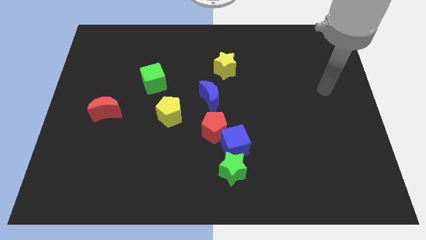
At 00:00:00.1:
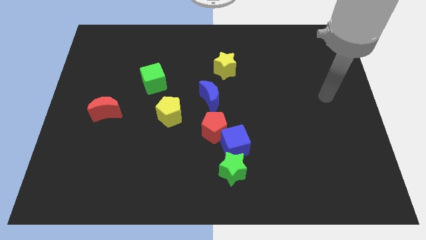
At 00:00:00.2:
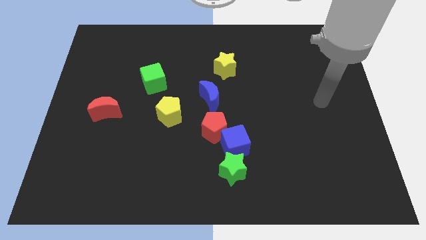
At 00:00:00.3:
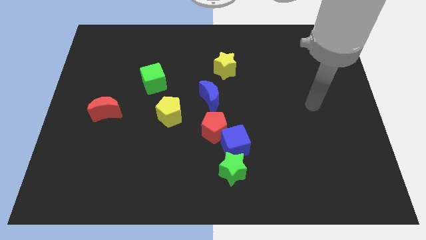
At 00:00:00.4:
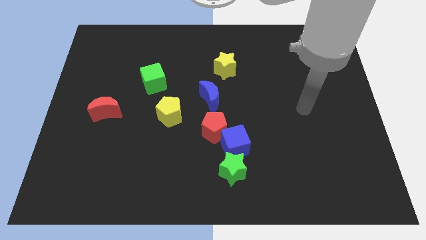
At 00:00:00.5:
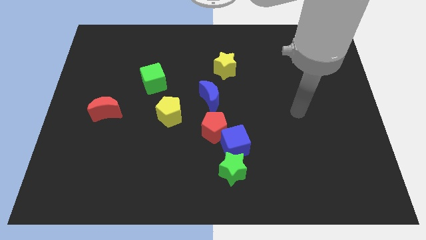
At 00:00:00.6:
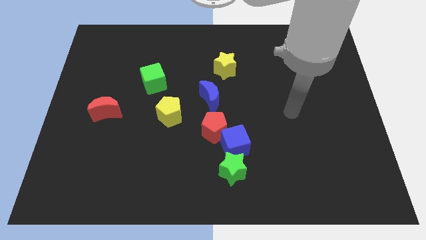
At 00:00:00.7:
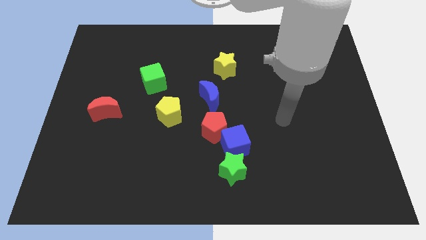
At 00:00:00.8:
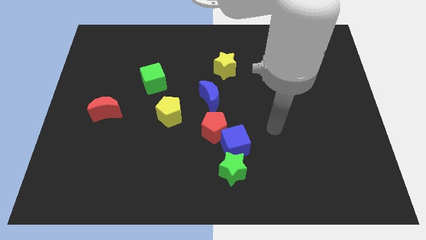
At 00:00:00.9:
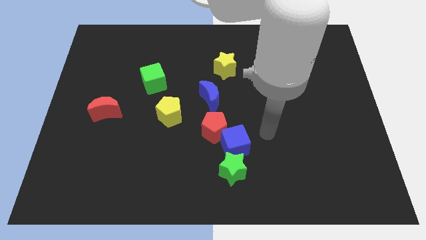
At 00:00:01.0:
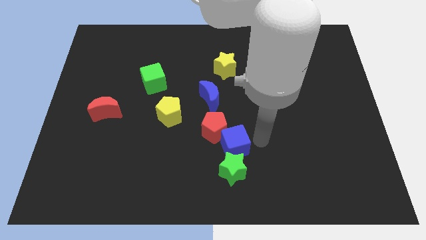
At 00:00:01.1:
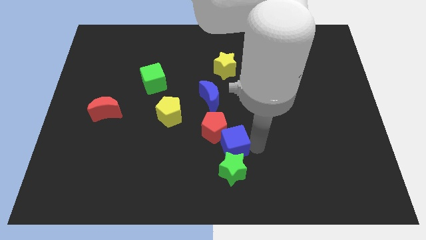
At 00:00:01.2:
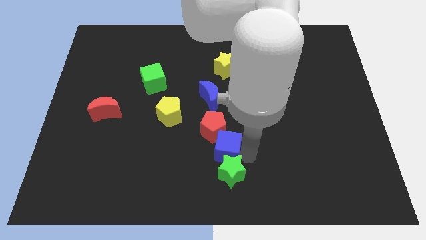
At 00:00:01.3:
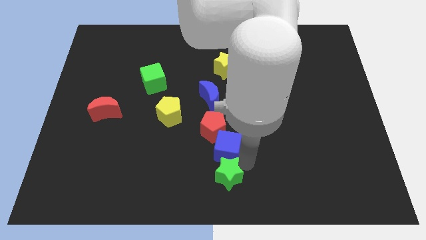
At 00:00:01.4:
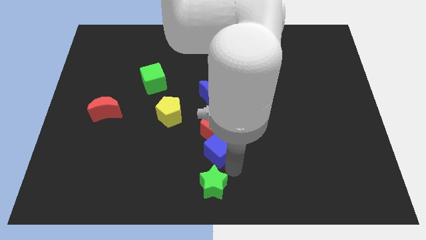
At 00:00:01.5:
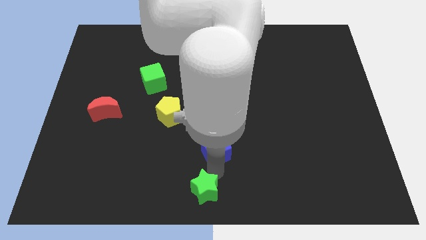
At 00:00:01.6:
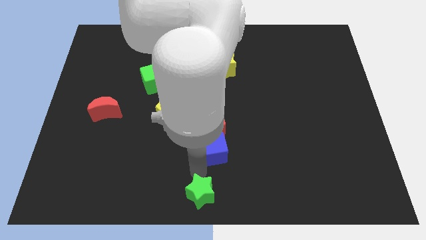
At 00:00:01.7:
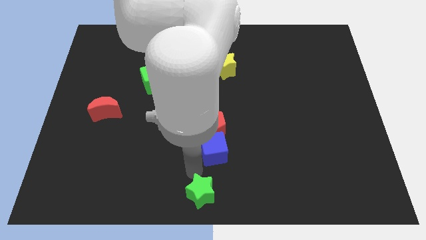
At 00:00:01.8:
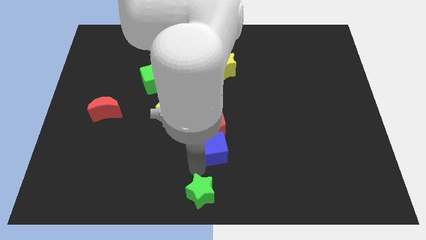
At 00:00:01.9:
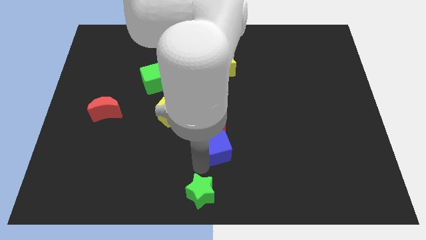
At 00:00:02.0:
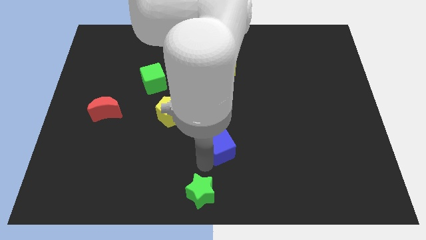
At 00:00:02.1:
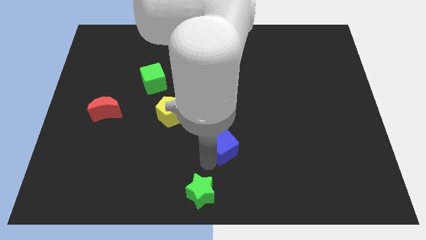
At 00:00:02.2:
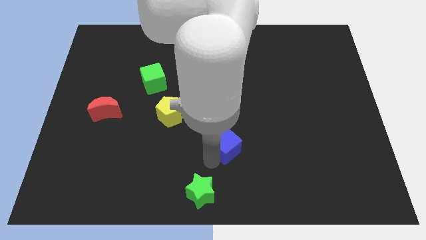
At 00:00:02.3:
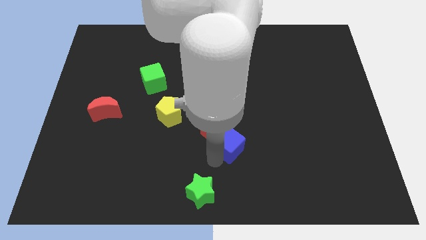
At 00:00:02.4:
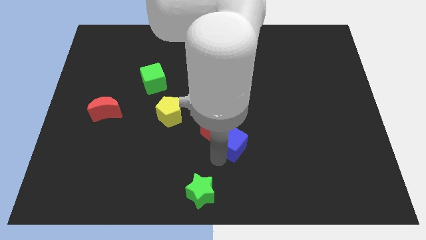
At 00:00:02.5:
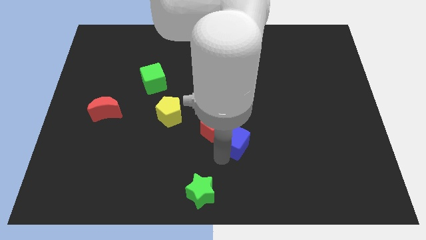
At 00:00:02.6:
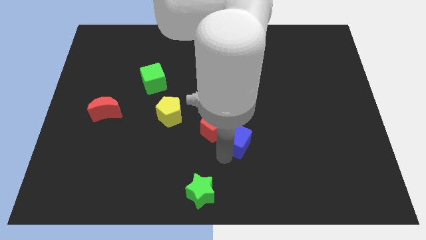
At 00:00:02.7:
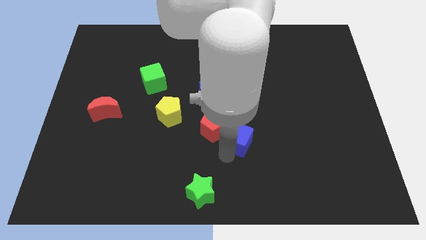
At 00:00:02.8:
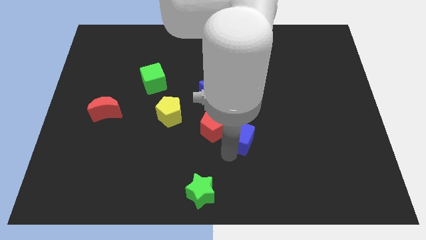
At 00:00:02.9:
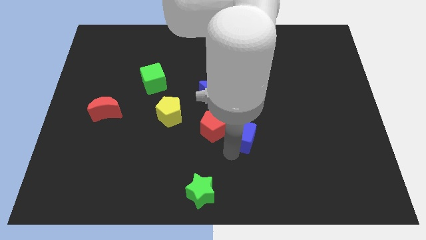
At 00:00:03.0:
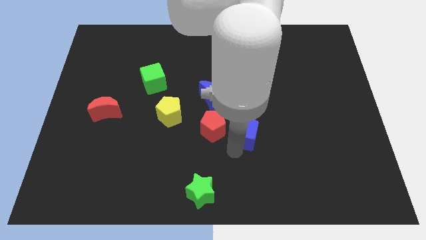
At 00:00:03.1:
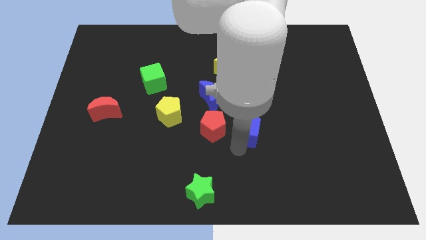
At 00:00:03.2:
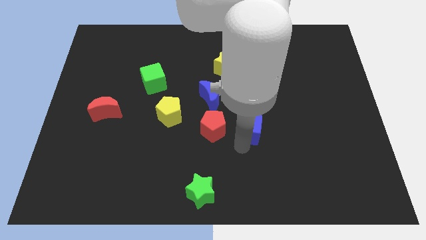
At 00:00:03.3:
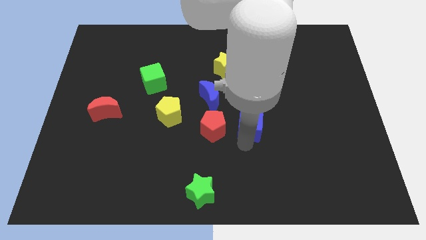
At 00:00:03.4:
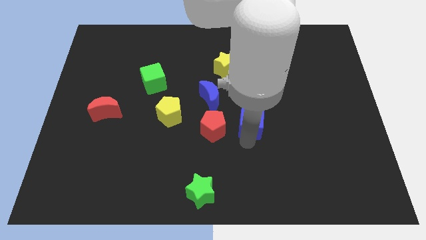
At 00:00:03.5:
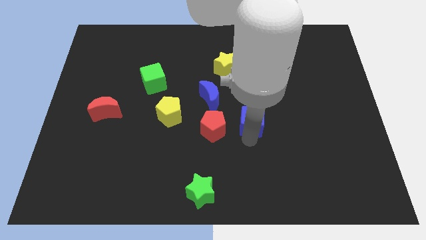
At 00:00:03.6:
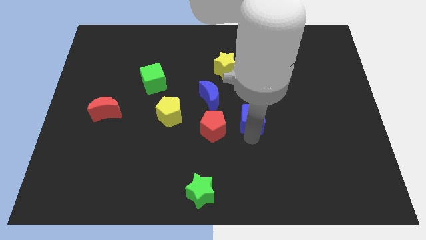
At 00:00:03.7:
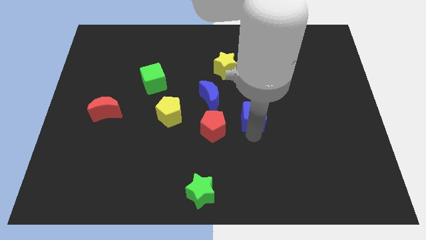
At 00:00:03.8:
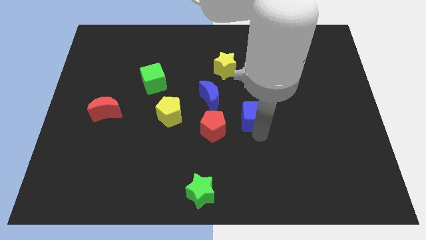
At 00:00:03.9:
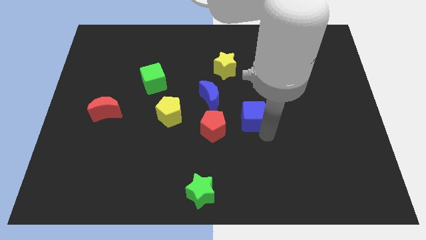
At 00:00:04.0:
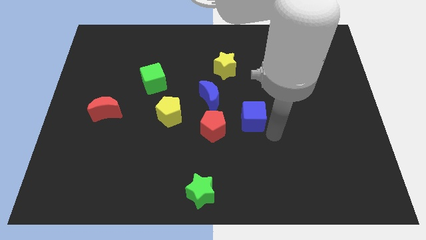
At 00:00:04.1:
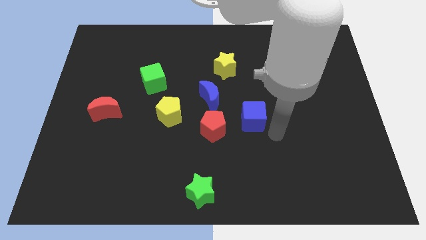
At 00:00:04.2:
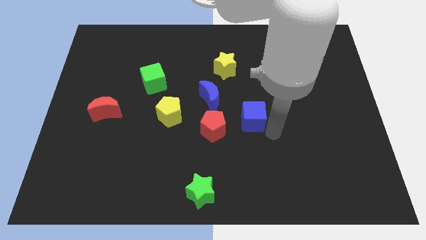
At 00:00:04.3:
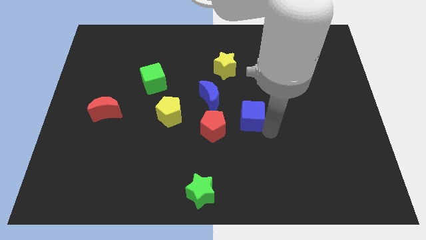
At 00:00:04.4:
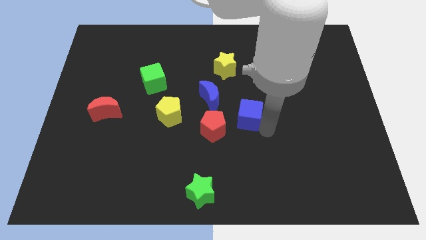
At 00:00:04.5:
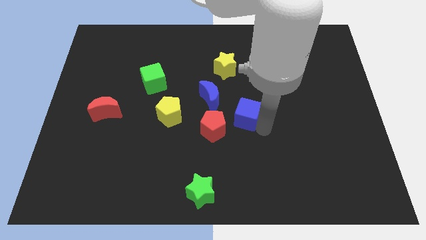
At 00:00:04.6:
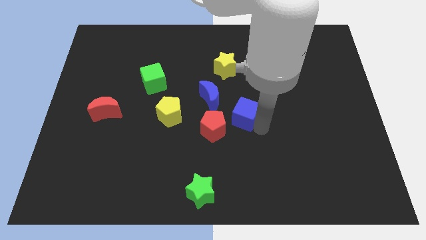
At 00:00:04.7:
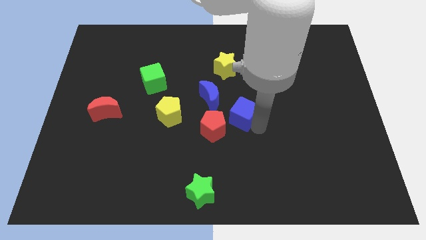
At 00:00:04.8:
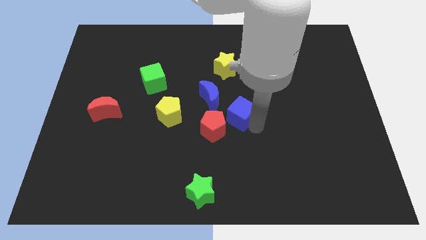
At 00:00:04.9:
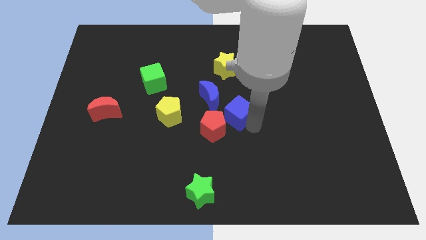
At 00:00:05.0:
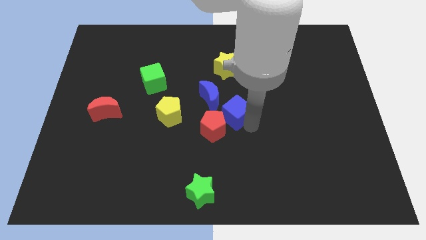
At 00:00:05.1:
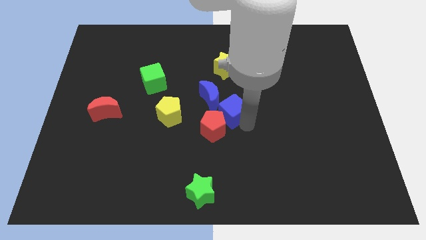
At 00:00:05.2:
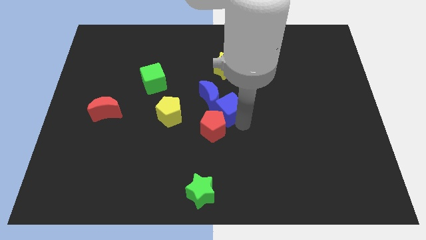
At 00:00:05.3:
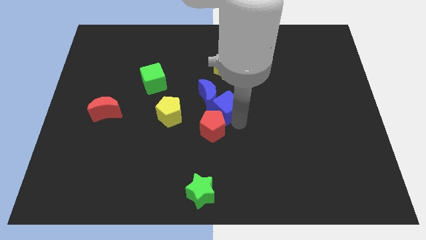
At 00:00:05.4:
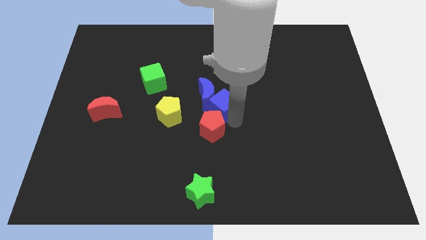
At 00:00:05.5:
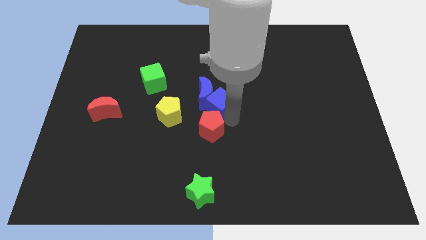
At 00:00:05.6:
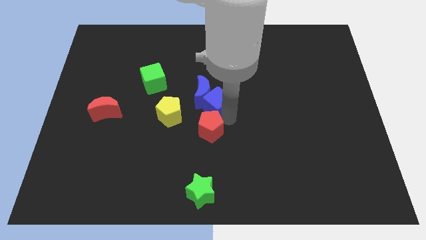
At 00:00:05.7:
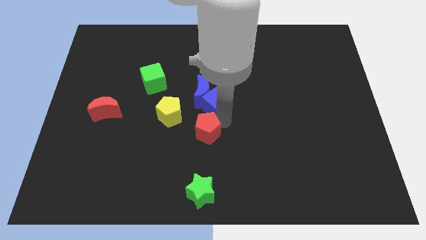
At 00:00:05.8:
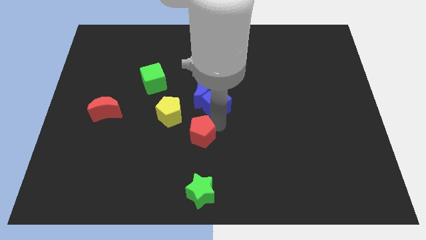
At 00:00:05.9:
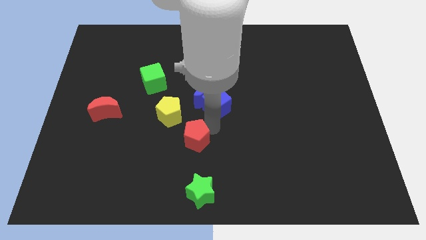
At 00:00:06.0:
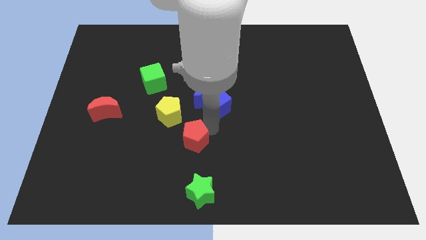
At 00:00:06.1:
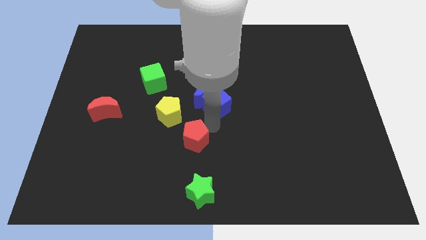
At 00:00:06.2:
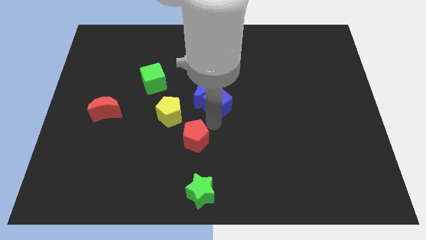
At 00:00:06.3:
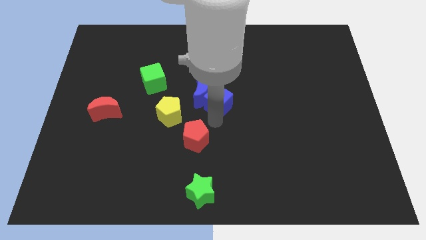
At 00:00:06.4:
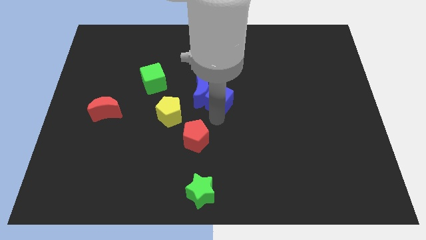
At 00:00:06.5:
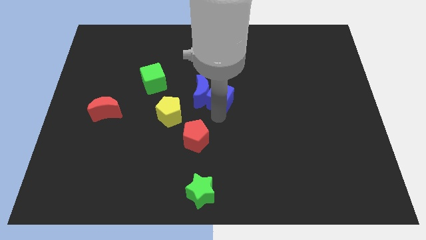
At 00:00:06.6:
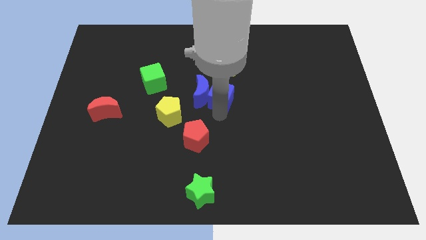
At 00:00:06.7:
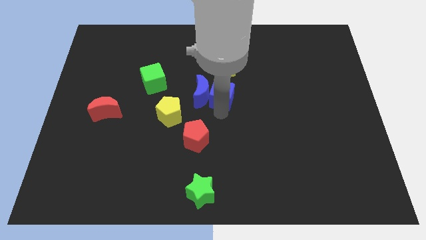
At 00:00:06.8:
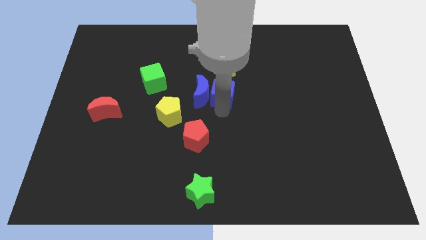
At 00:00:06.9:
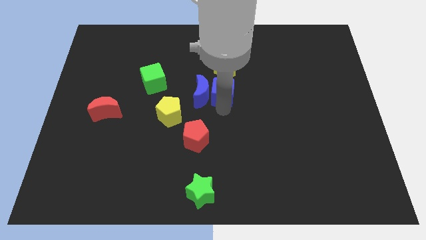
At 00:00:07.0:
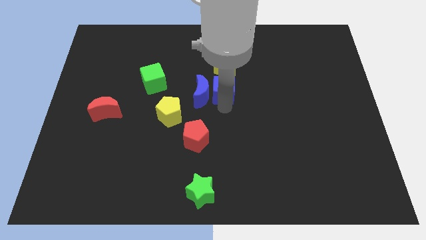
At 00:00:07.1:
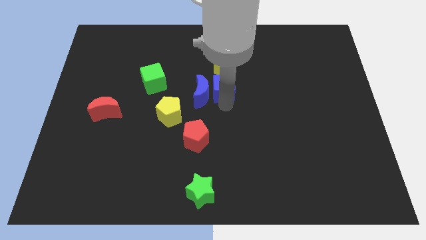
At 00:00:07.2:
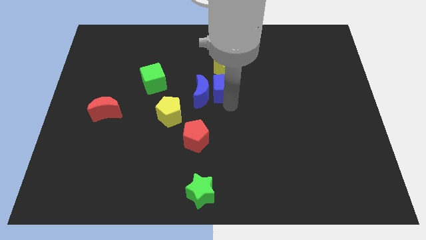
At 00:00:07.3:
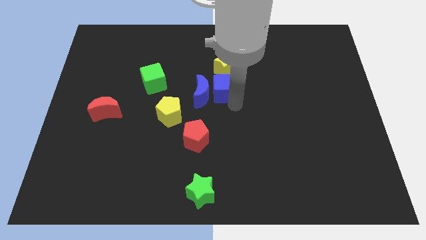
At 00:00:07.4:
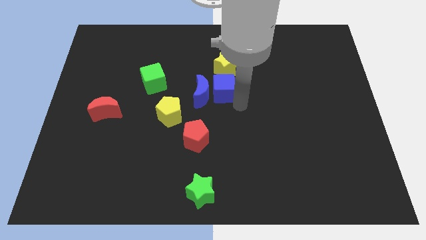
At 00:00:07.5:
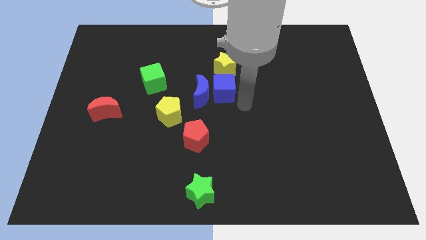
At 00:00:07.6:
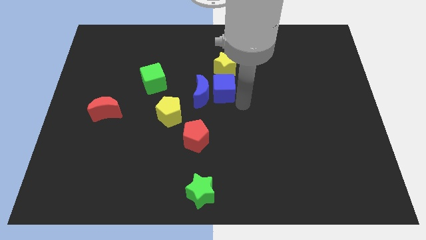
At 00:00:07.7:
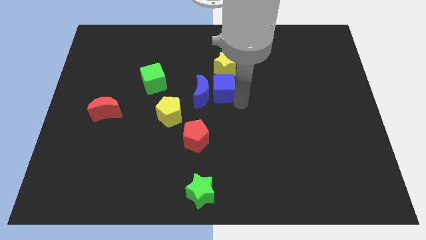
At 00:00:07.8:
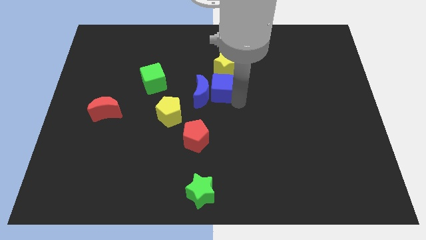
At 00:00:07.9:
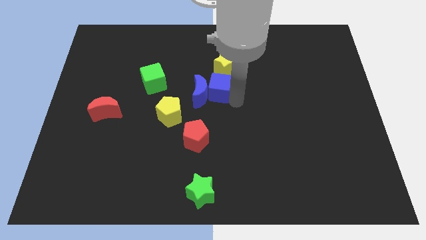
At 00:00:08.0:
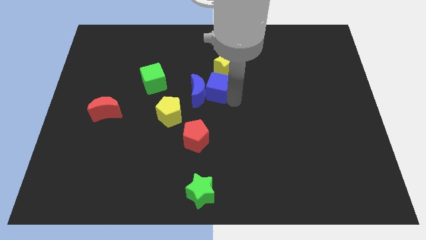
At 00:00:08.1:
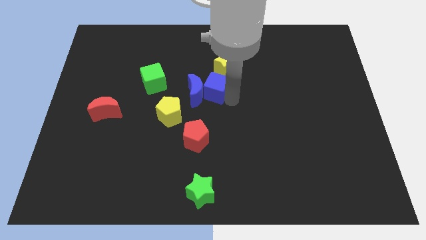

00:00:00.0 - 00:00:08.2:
push the blue cube to the right side of the green cube
